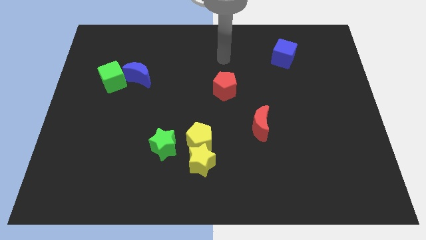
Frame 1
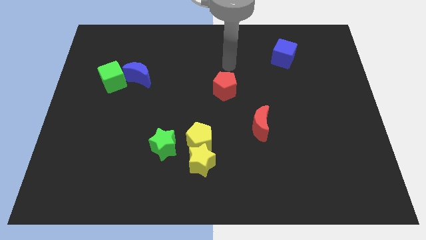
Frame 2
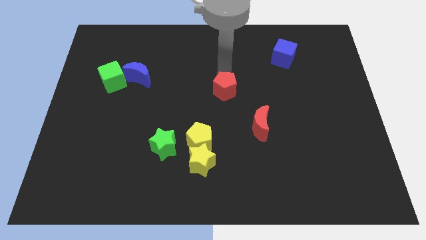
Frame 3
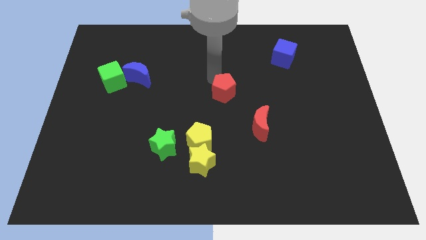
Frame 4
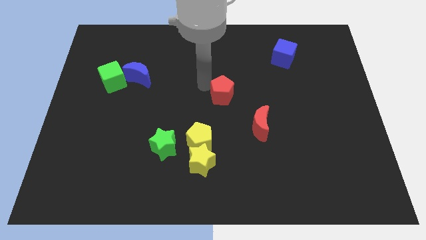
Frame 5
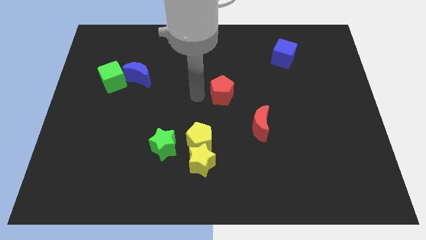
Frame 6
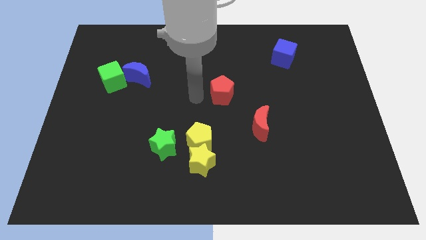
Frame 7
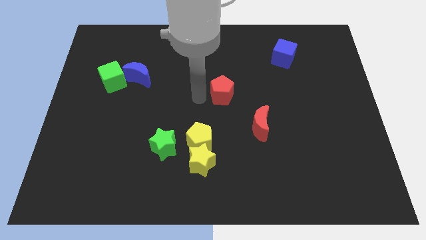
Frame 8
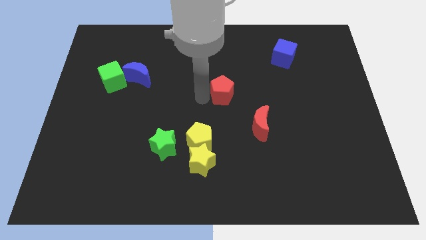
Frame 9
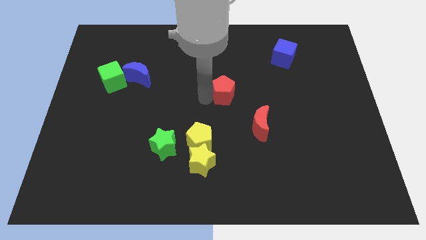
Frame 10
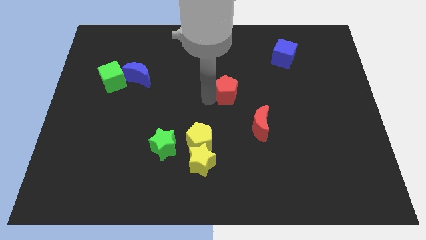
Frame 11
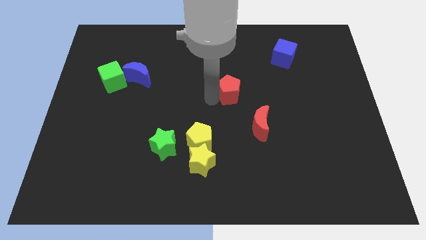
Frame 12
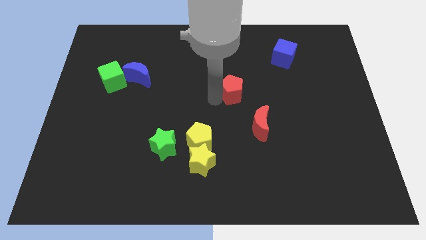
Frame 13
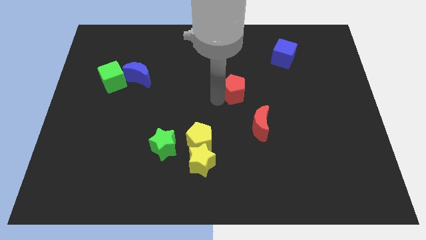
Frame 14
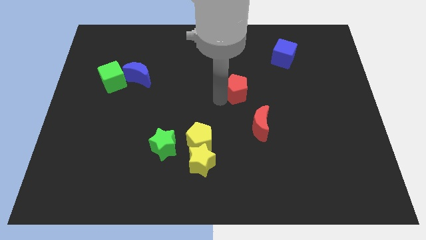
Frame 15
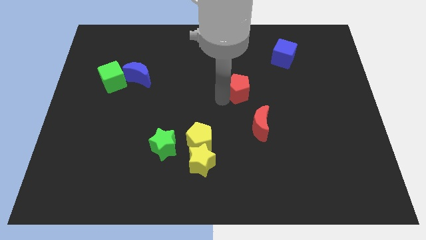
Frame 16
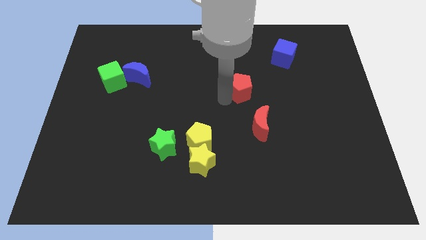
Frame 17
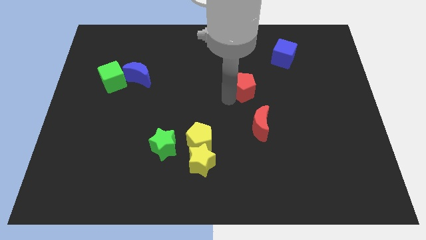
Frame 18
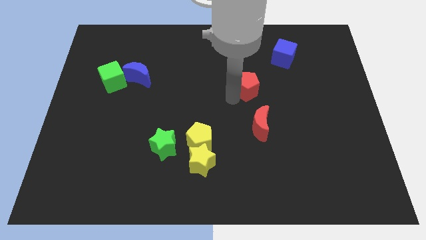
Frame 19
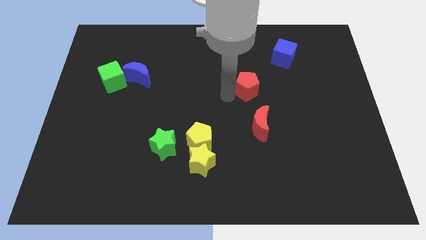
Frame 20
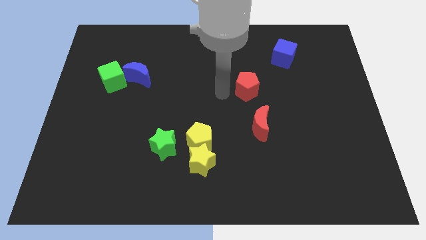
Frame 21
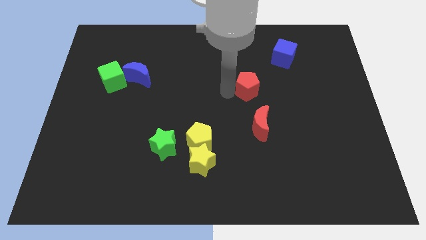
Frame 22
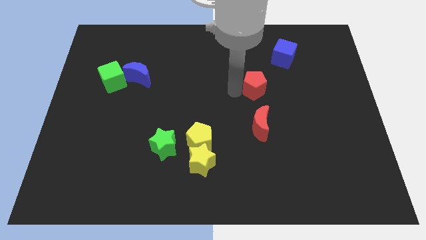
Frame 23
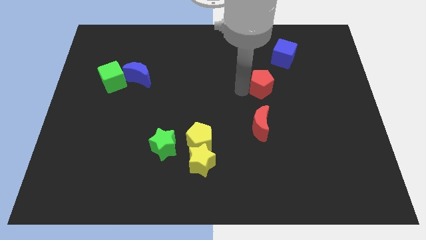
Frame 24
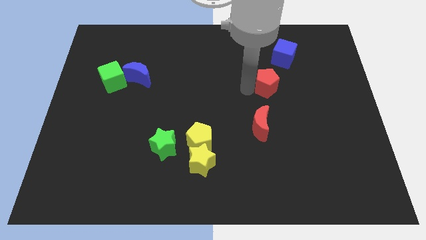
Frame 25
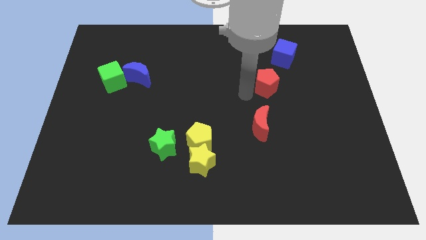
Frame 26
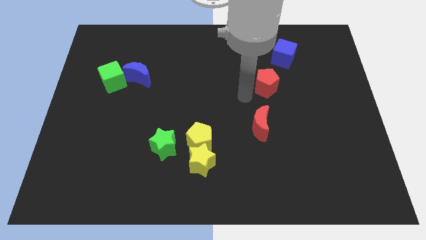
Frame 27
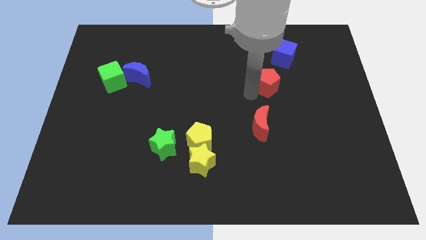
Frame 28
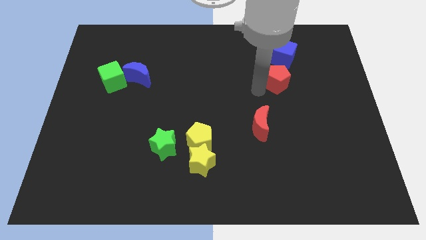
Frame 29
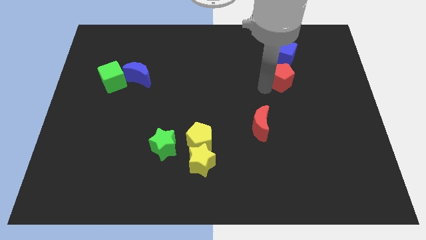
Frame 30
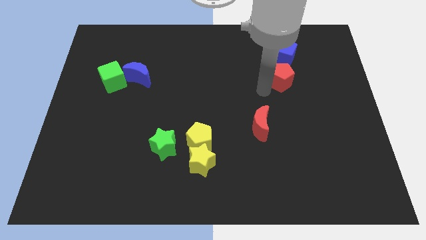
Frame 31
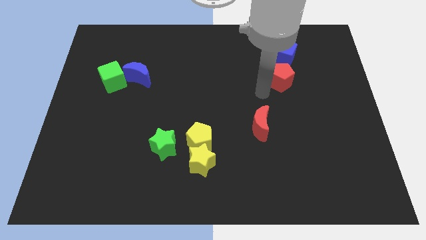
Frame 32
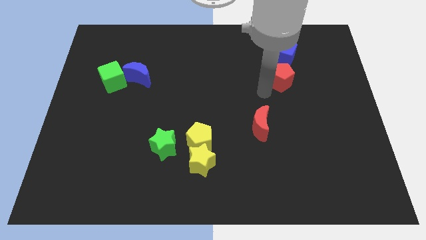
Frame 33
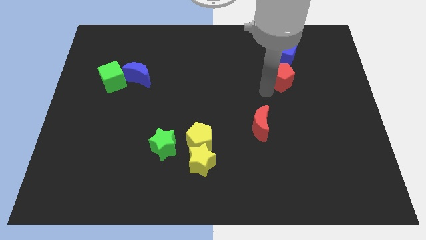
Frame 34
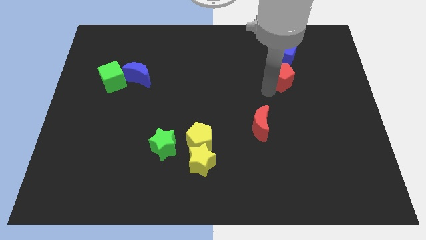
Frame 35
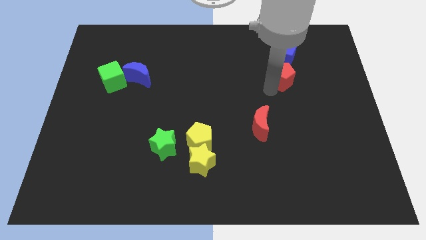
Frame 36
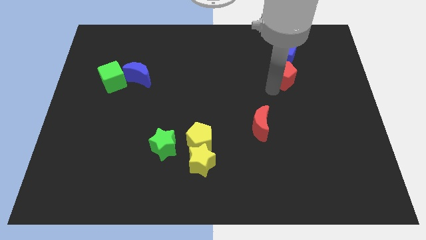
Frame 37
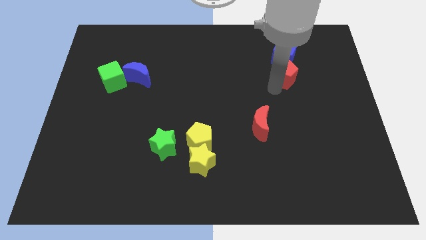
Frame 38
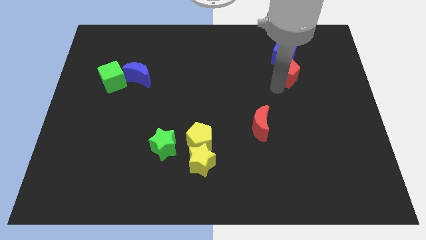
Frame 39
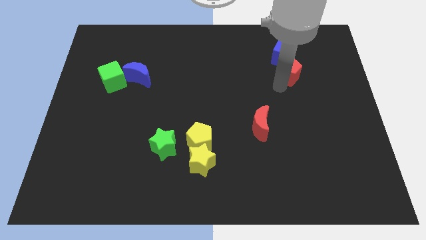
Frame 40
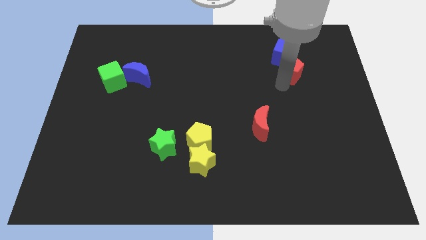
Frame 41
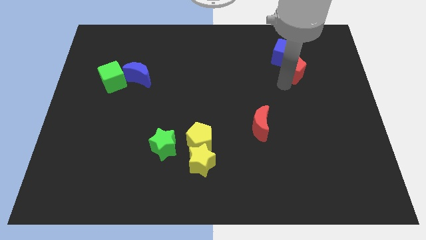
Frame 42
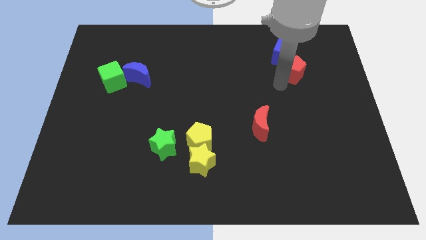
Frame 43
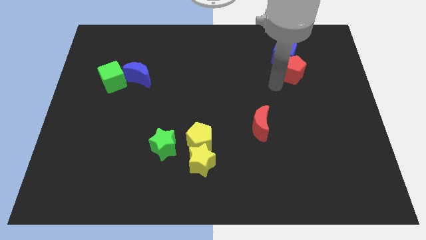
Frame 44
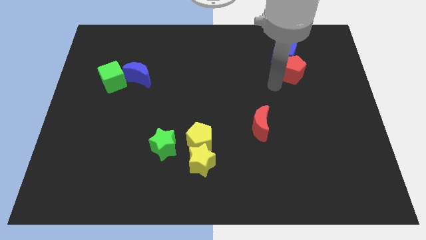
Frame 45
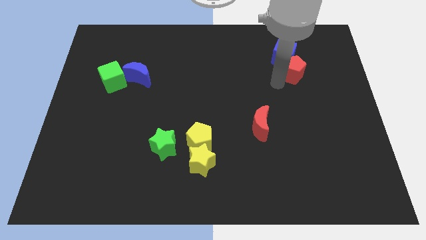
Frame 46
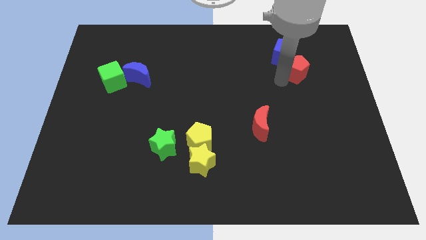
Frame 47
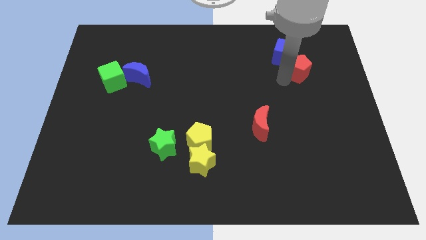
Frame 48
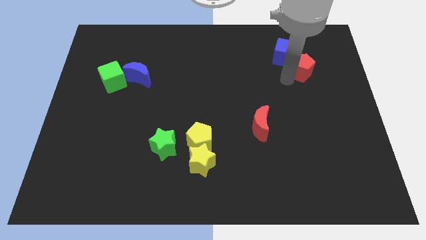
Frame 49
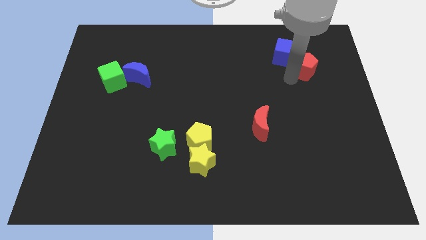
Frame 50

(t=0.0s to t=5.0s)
push the red pentagon right of the blue cube

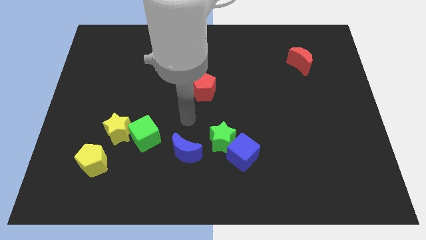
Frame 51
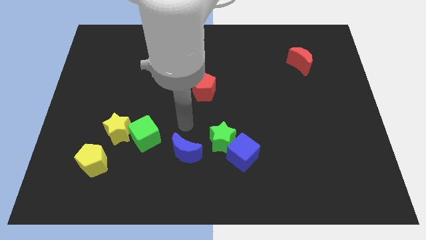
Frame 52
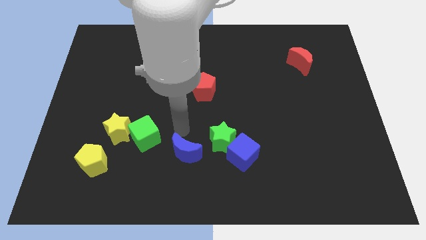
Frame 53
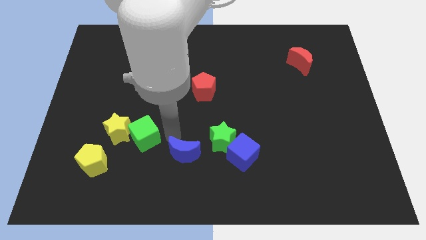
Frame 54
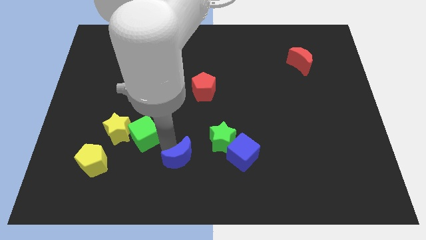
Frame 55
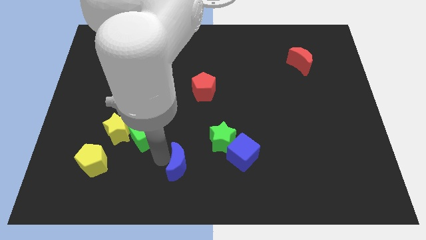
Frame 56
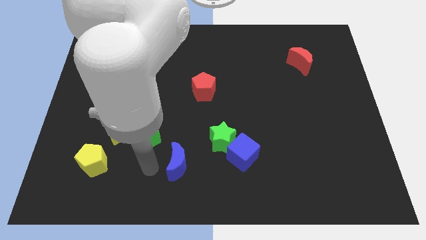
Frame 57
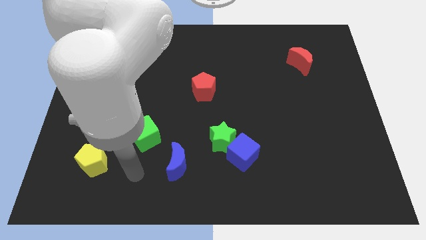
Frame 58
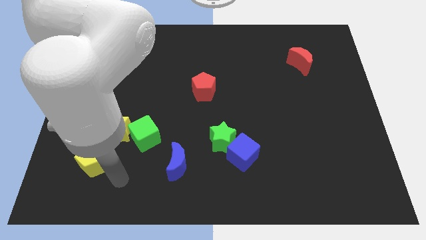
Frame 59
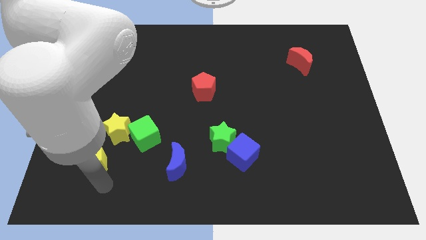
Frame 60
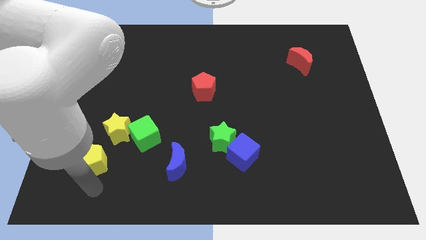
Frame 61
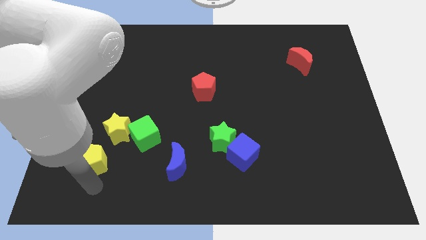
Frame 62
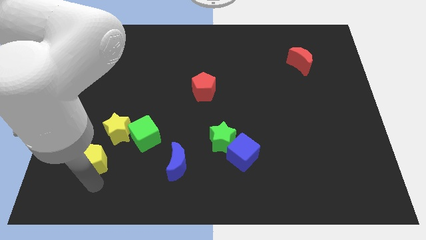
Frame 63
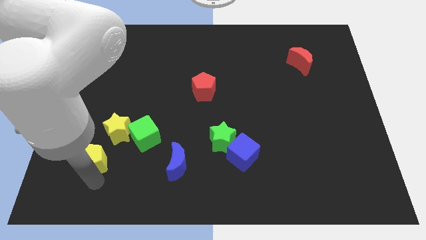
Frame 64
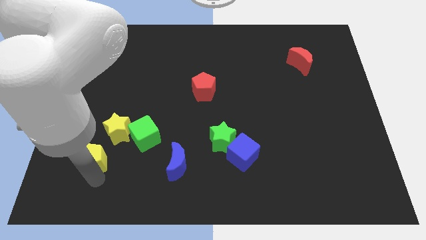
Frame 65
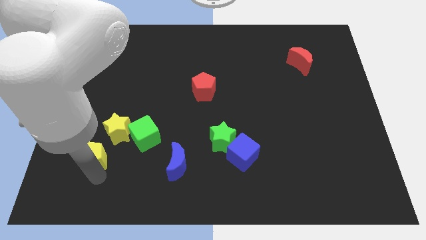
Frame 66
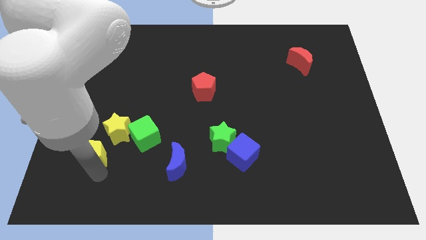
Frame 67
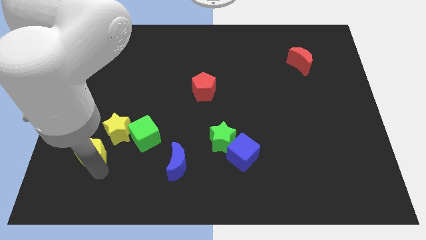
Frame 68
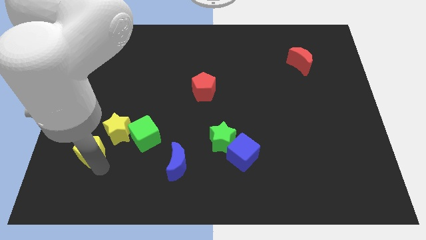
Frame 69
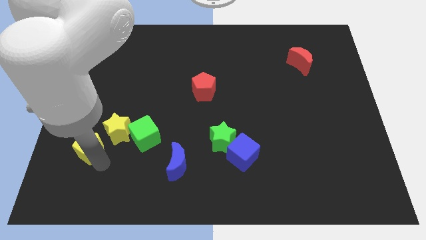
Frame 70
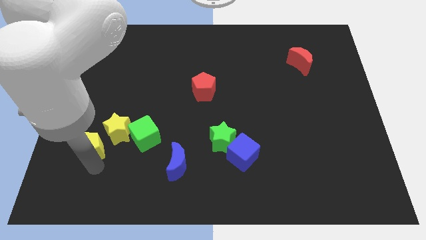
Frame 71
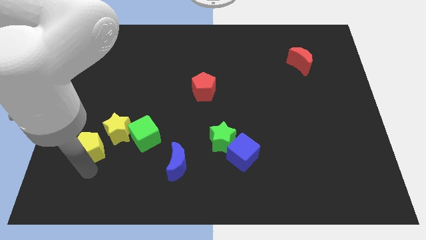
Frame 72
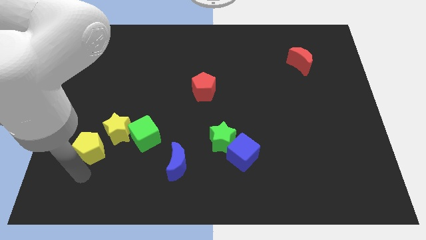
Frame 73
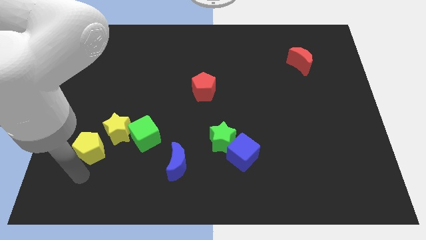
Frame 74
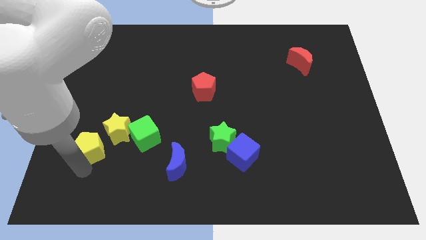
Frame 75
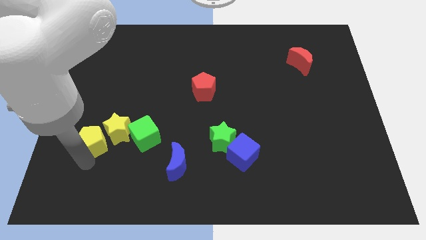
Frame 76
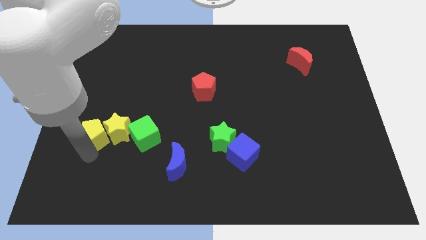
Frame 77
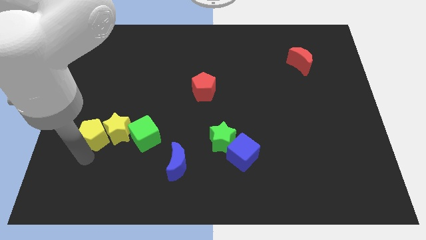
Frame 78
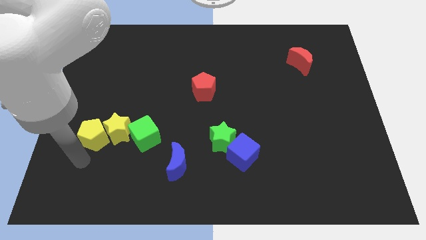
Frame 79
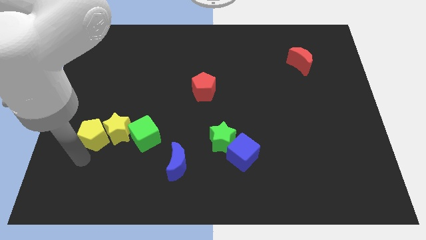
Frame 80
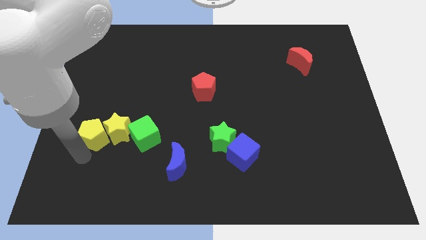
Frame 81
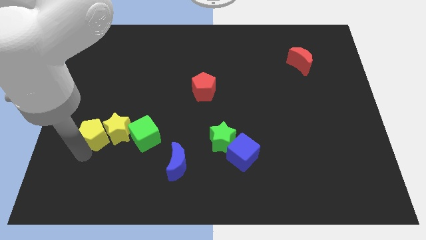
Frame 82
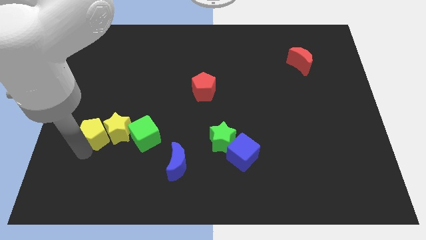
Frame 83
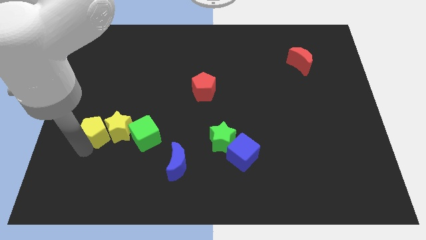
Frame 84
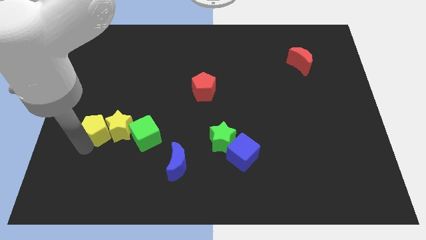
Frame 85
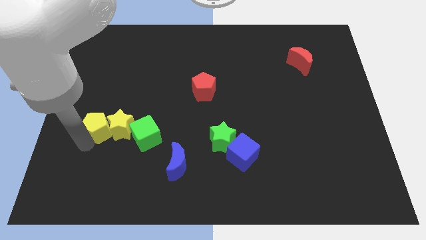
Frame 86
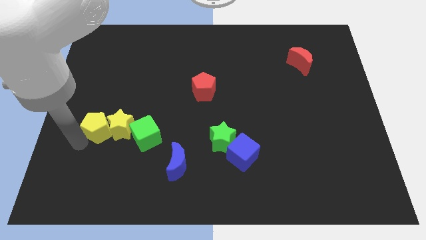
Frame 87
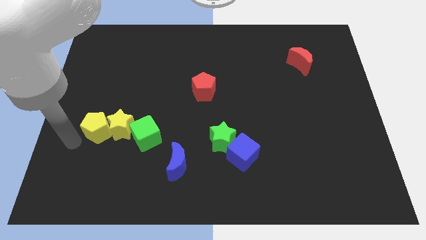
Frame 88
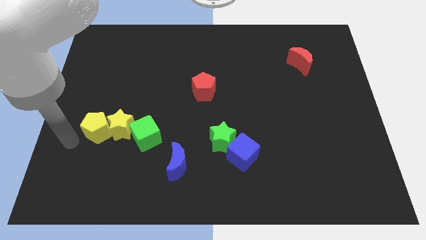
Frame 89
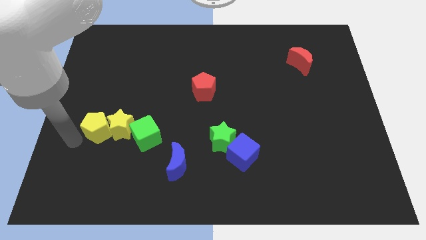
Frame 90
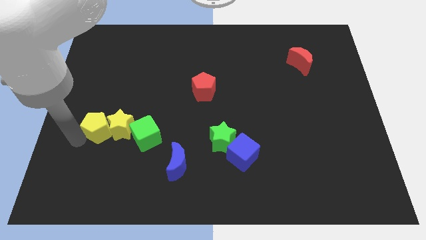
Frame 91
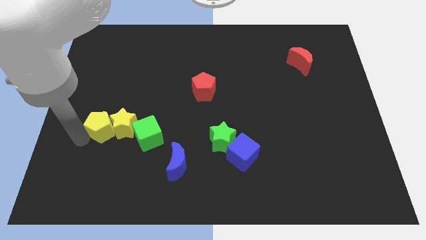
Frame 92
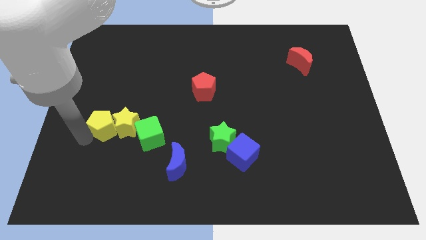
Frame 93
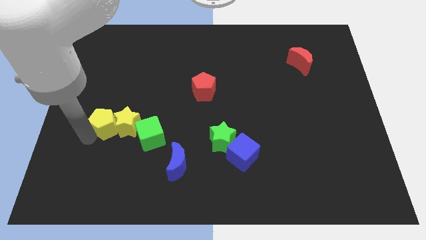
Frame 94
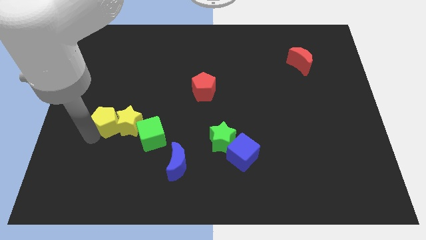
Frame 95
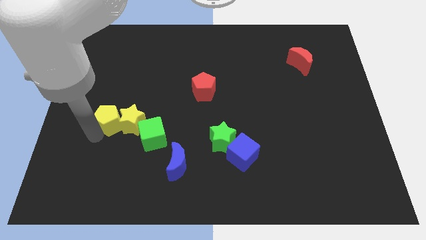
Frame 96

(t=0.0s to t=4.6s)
put the yellow pentagon to the top left side of the green cube
